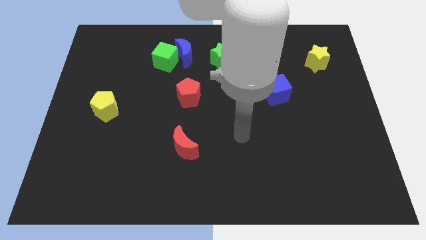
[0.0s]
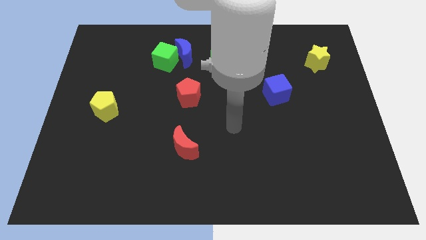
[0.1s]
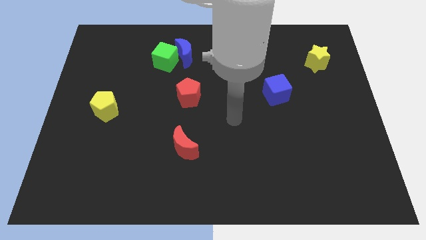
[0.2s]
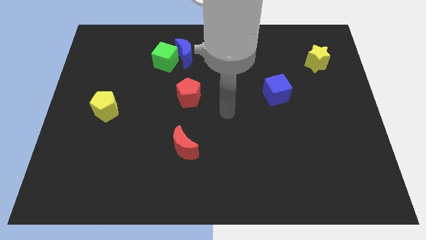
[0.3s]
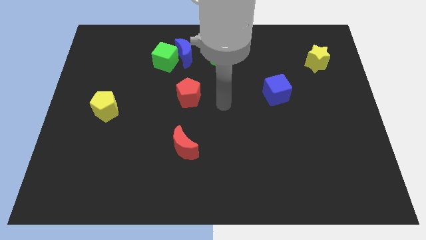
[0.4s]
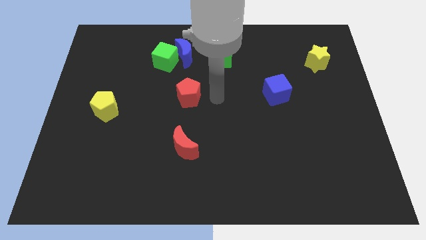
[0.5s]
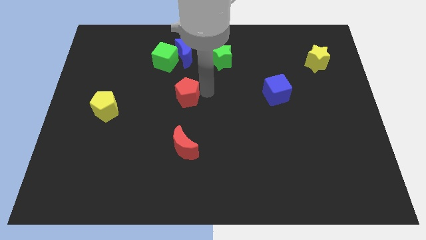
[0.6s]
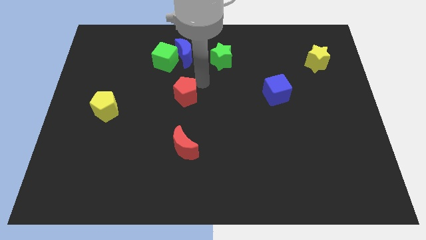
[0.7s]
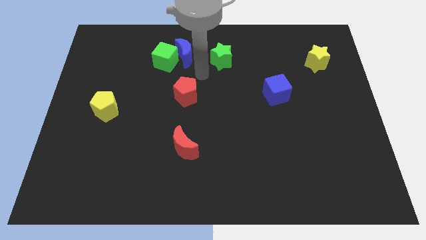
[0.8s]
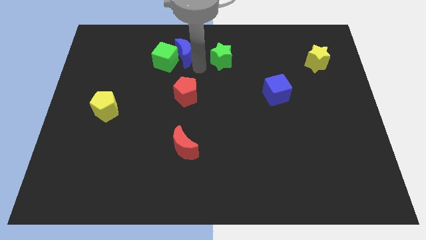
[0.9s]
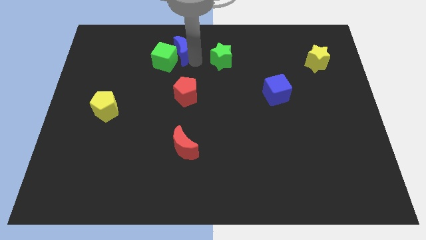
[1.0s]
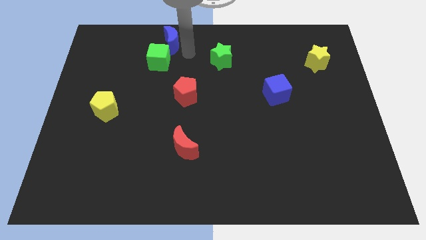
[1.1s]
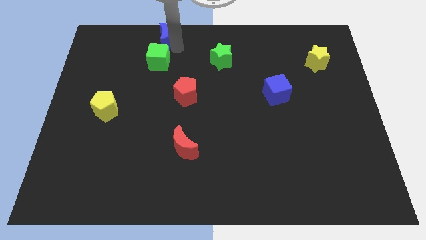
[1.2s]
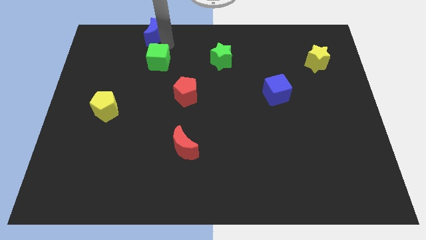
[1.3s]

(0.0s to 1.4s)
separate the green cube from the blue moon

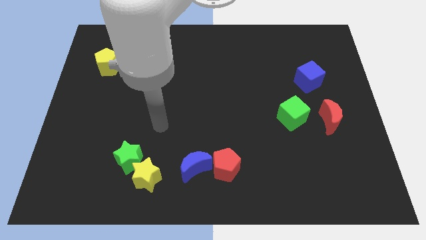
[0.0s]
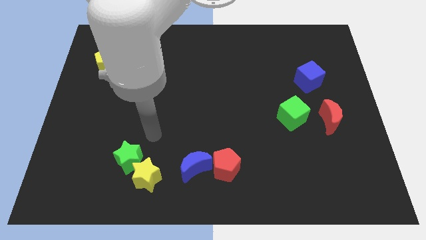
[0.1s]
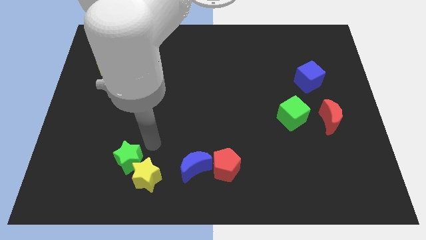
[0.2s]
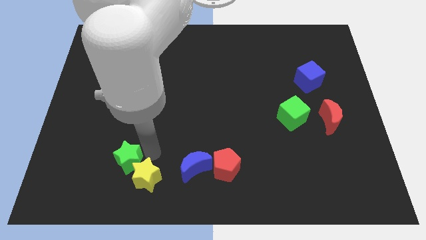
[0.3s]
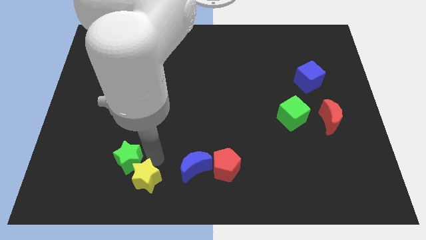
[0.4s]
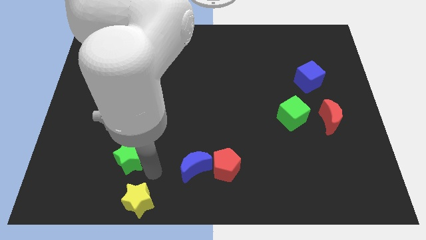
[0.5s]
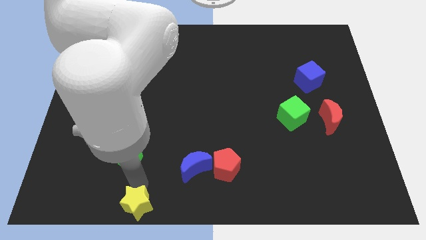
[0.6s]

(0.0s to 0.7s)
separate the green star from the yellow star

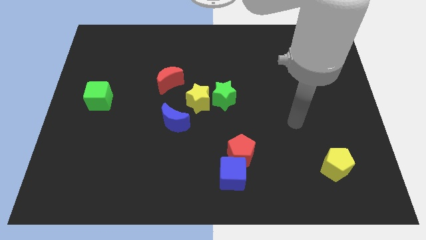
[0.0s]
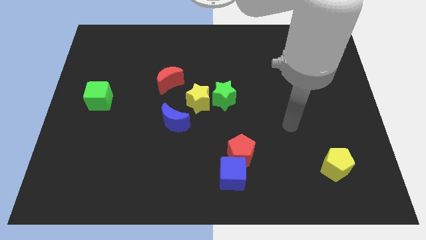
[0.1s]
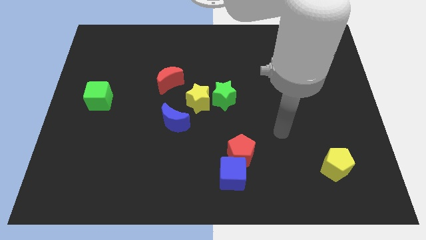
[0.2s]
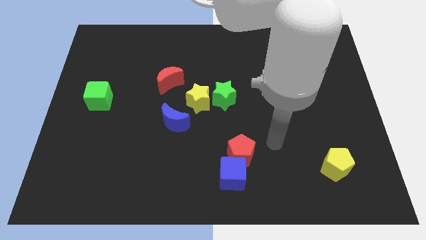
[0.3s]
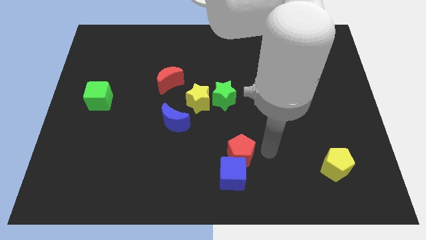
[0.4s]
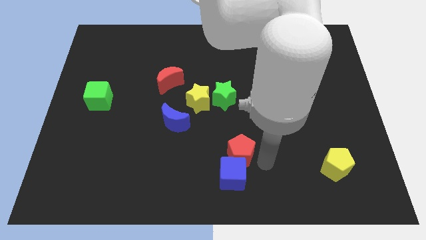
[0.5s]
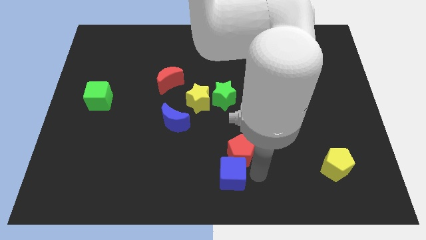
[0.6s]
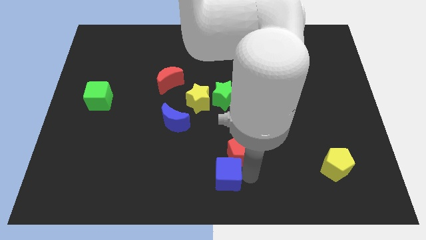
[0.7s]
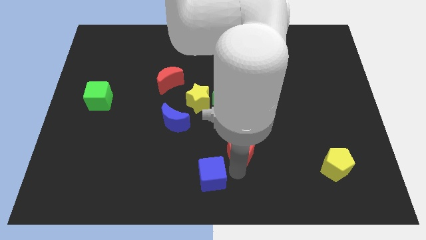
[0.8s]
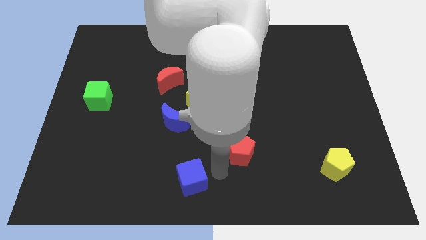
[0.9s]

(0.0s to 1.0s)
separate the red pentagon from the blue cube

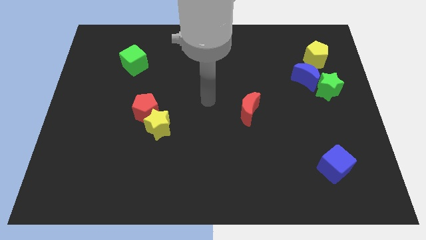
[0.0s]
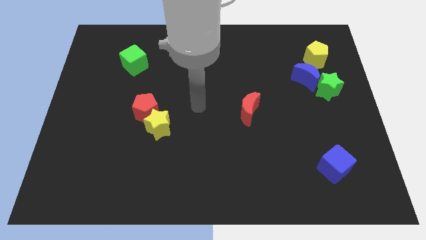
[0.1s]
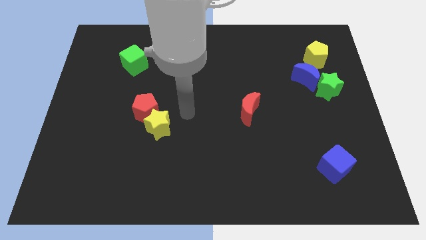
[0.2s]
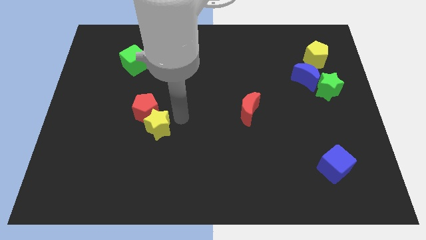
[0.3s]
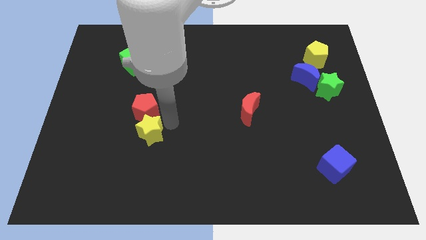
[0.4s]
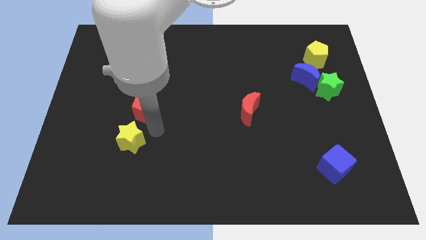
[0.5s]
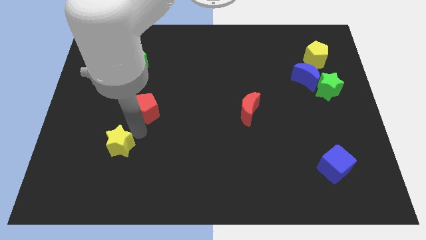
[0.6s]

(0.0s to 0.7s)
pull the red pentagon apart from the yellow star

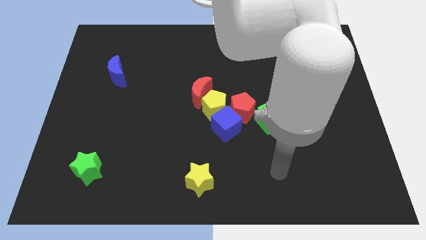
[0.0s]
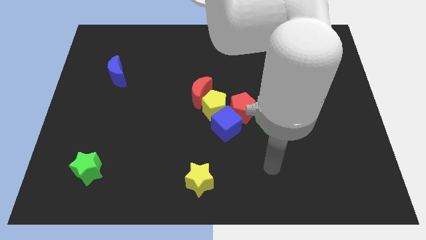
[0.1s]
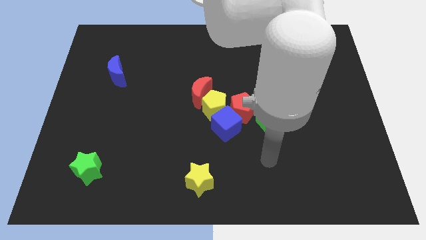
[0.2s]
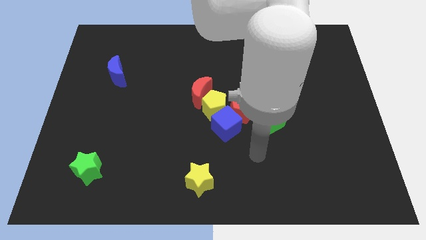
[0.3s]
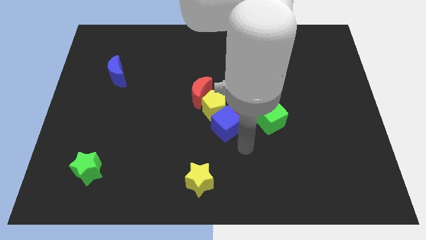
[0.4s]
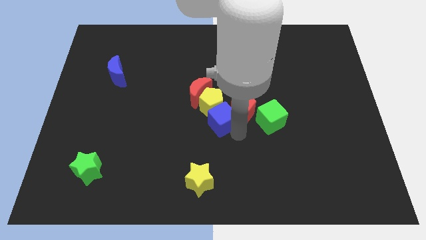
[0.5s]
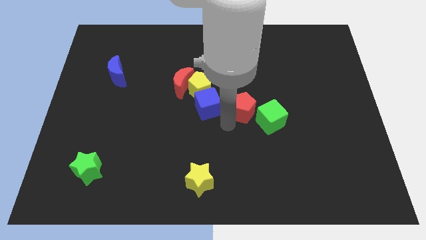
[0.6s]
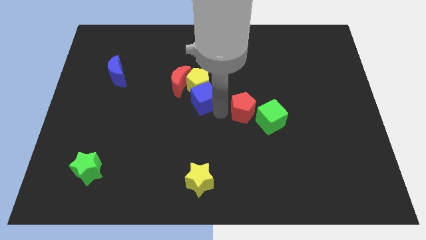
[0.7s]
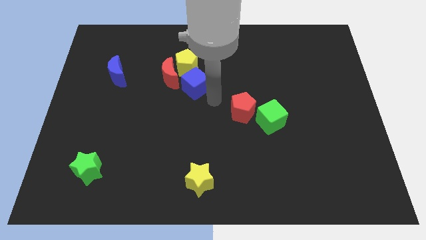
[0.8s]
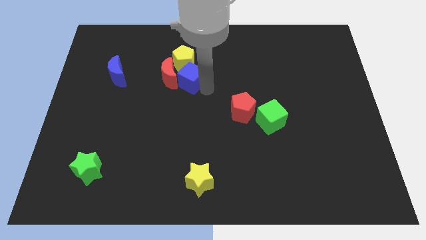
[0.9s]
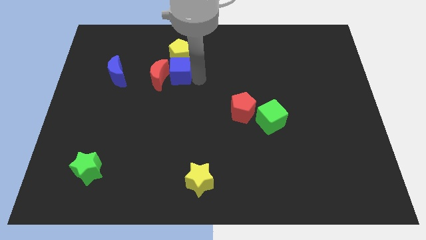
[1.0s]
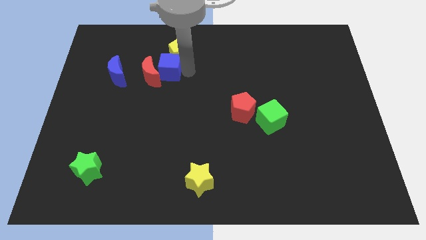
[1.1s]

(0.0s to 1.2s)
move the red moon away from the yellow pentagon

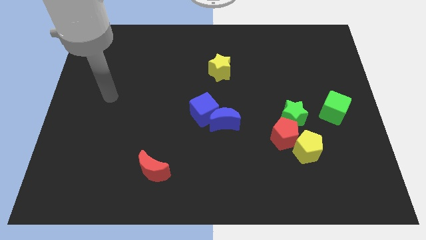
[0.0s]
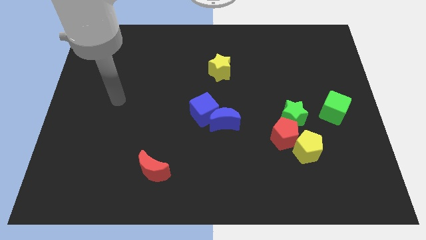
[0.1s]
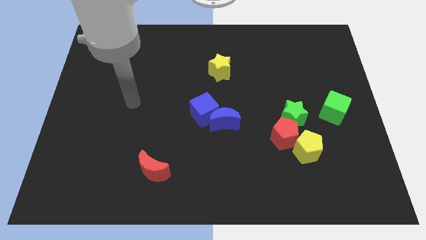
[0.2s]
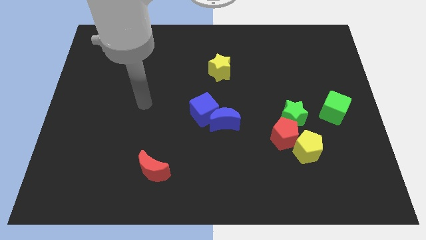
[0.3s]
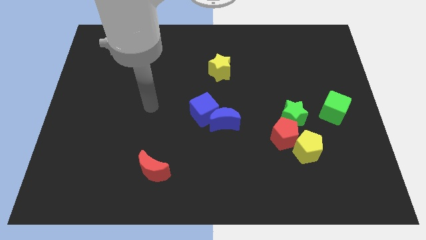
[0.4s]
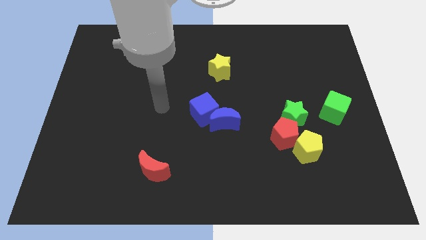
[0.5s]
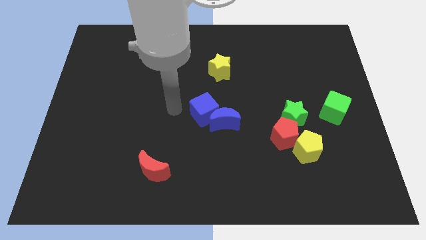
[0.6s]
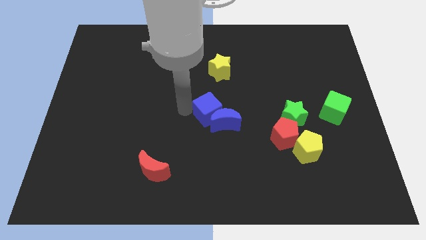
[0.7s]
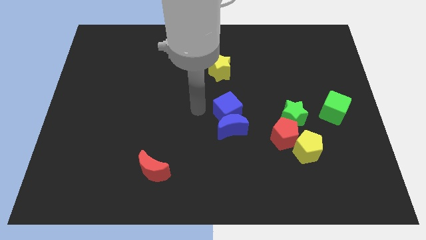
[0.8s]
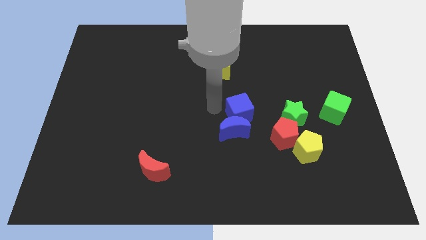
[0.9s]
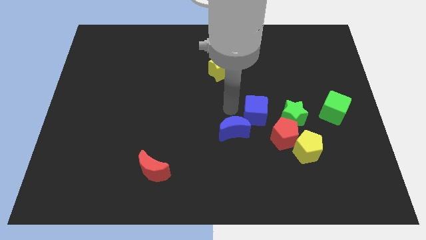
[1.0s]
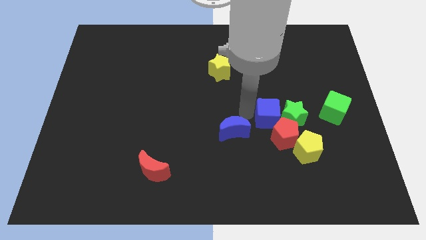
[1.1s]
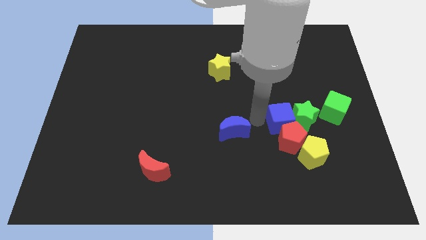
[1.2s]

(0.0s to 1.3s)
separate the blue moon from the blue cube

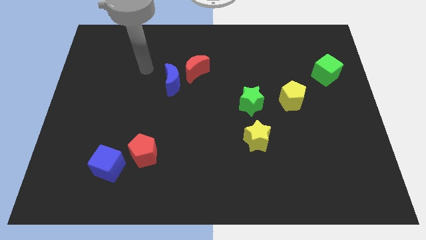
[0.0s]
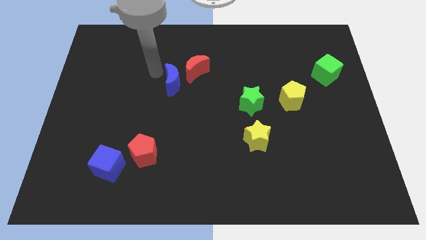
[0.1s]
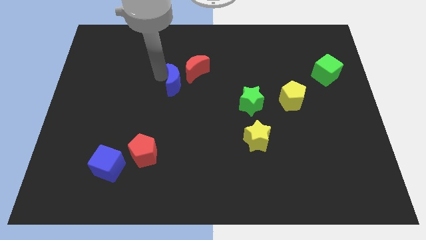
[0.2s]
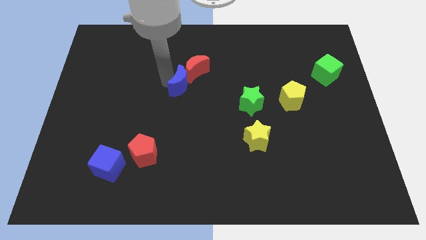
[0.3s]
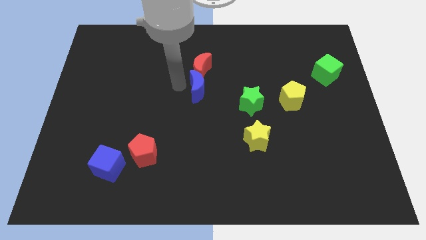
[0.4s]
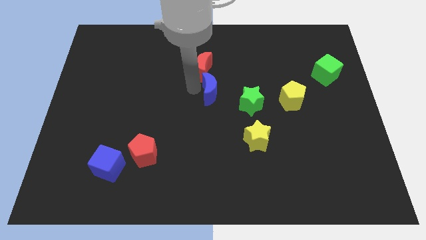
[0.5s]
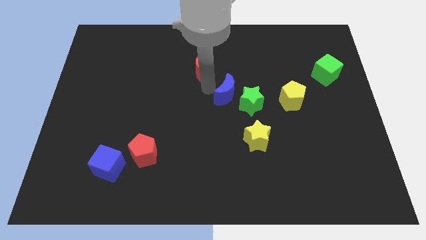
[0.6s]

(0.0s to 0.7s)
pull the red moon apart from the blue moon

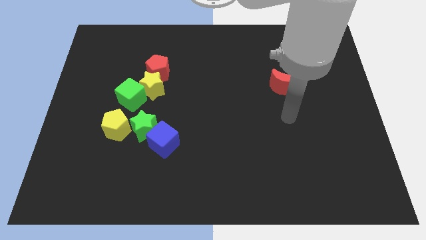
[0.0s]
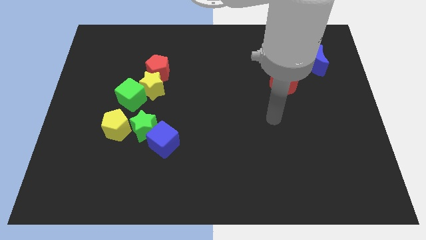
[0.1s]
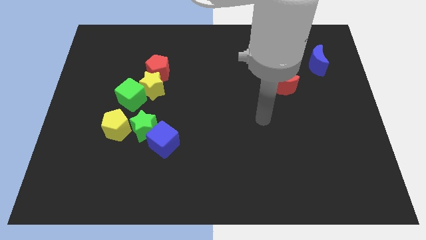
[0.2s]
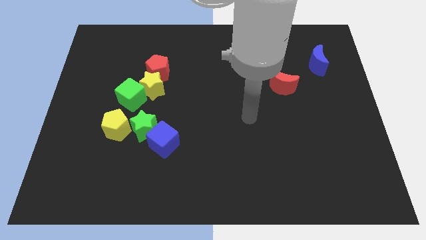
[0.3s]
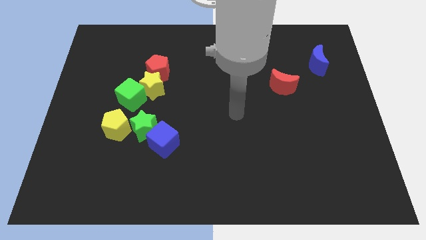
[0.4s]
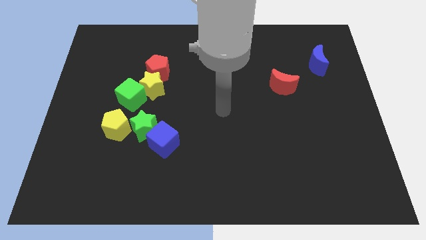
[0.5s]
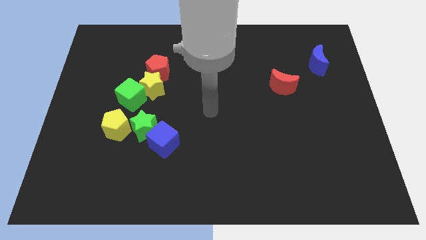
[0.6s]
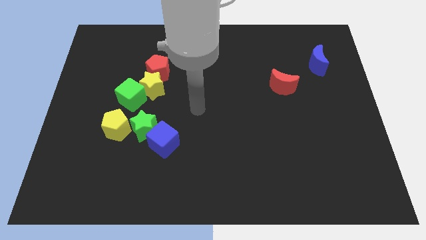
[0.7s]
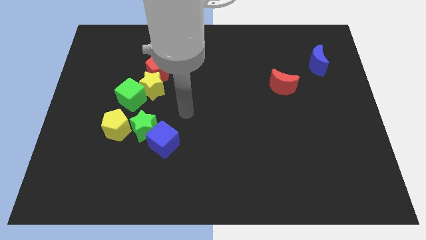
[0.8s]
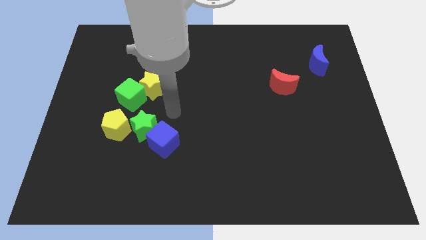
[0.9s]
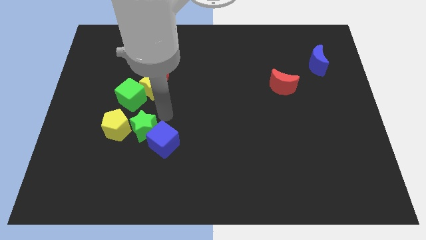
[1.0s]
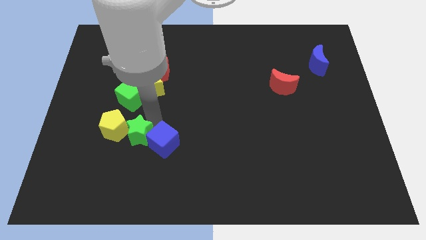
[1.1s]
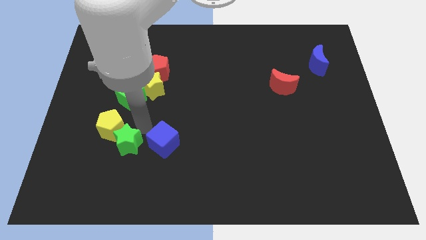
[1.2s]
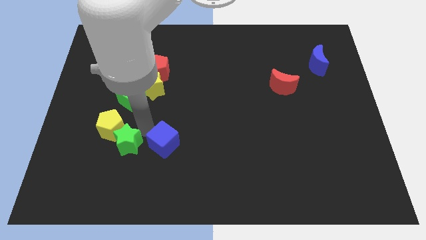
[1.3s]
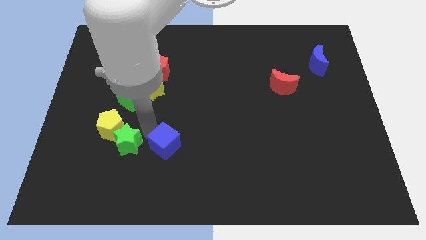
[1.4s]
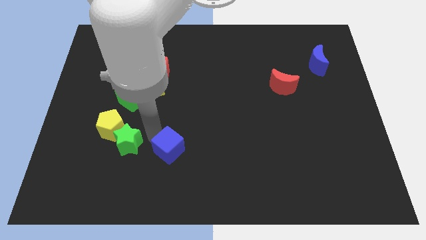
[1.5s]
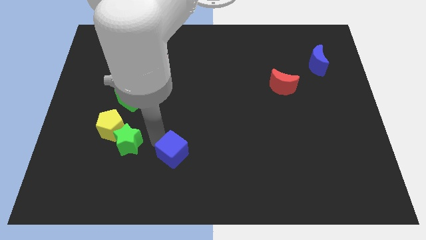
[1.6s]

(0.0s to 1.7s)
separate the blue cube from the green star

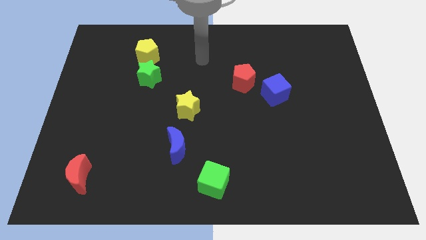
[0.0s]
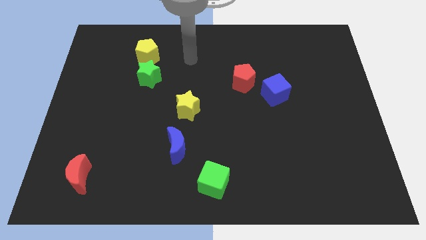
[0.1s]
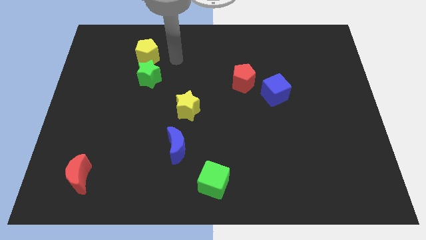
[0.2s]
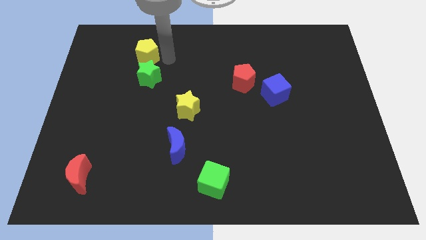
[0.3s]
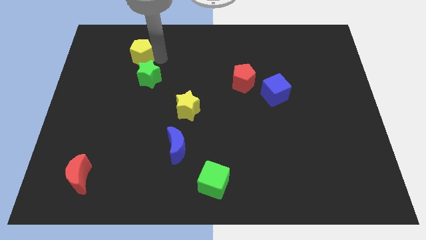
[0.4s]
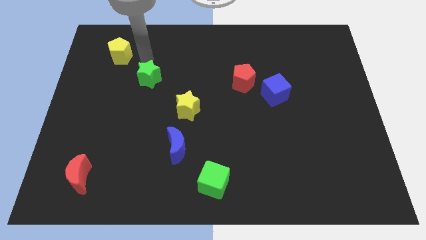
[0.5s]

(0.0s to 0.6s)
pull the green star apart from the yellow pentagon

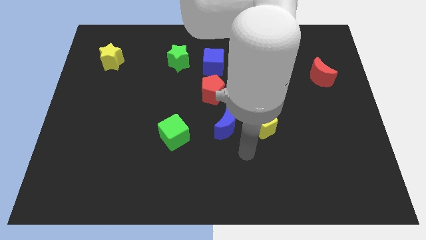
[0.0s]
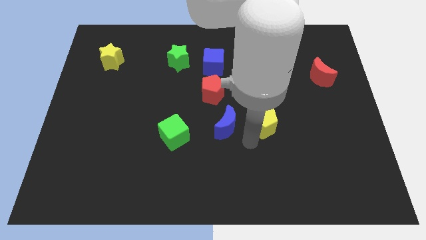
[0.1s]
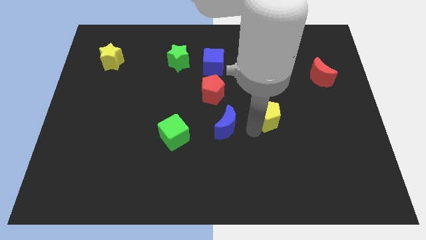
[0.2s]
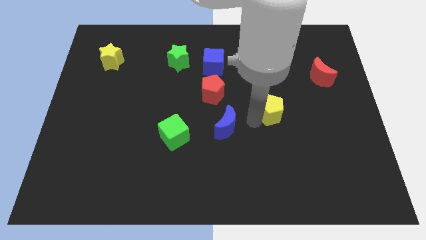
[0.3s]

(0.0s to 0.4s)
separate the blue moon from the yellow pentagon
